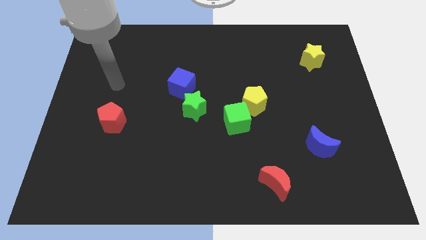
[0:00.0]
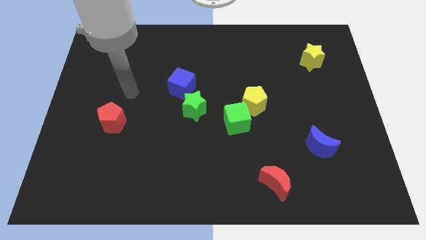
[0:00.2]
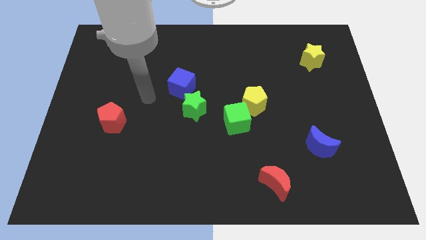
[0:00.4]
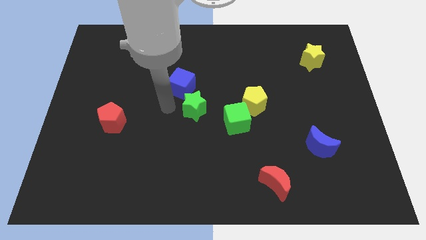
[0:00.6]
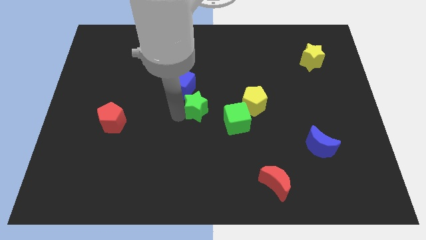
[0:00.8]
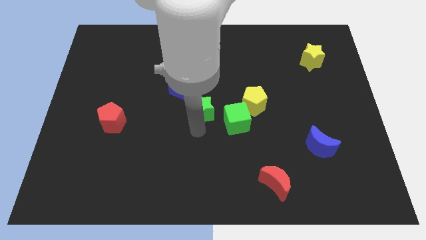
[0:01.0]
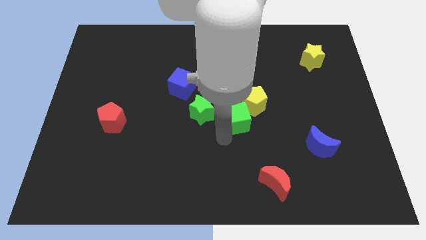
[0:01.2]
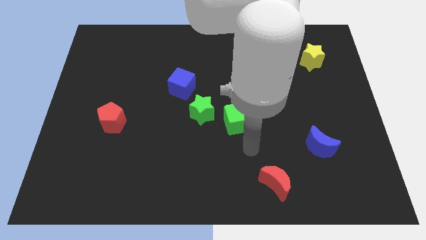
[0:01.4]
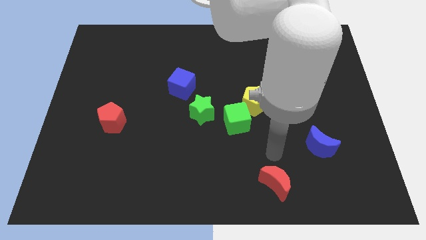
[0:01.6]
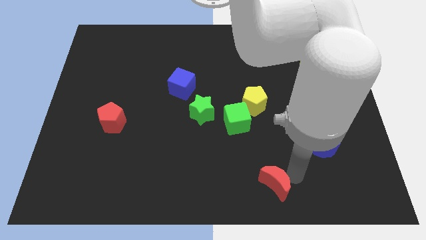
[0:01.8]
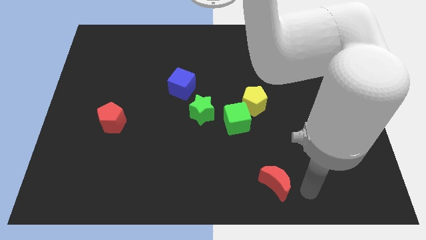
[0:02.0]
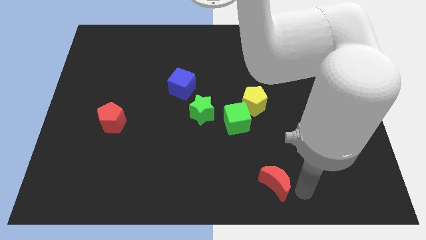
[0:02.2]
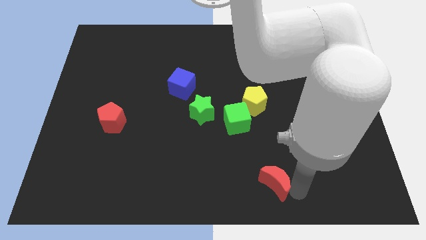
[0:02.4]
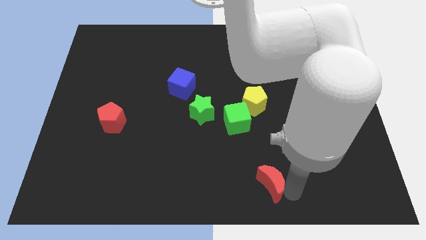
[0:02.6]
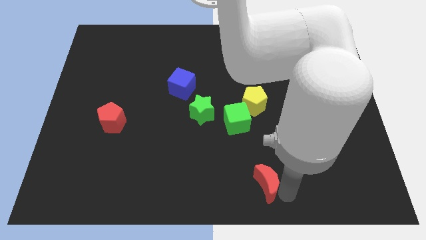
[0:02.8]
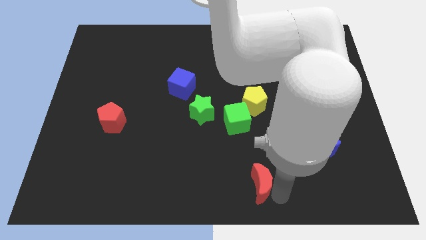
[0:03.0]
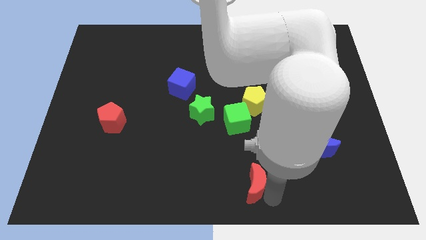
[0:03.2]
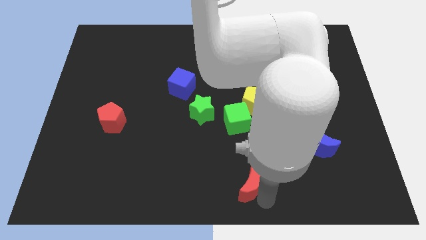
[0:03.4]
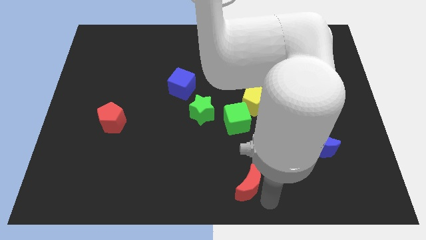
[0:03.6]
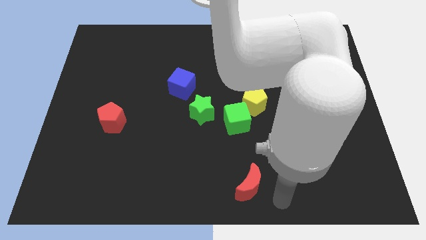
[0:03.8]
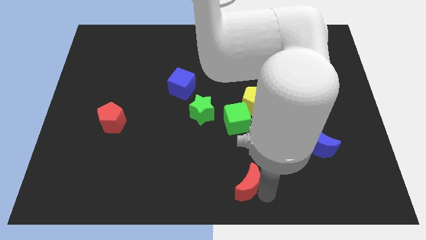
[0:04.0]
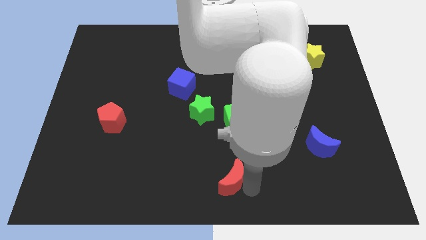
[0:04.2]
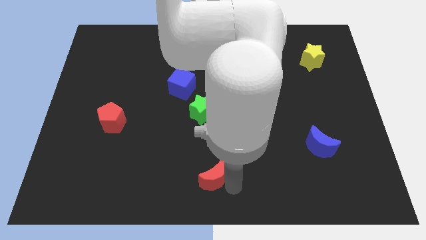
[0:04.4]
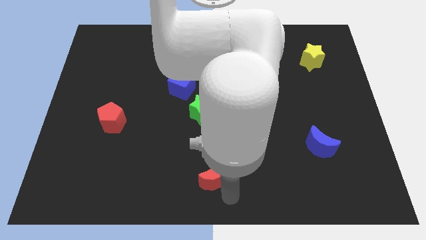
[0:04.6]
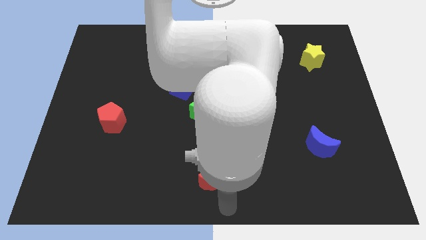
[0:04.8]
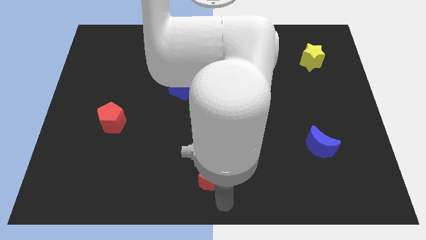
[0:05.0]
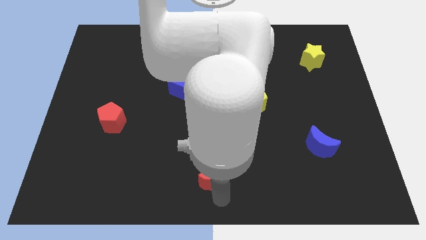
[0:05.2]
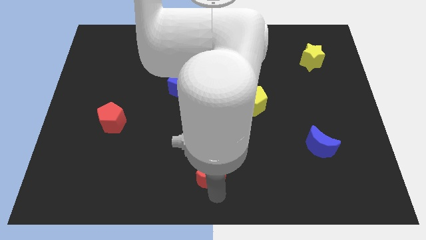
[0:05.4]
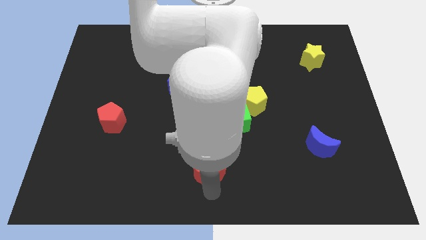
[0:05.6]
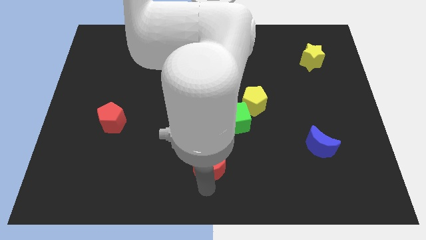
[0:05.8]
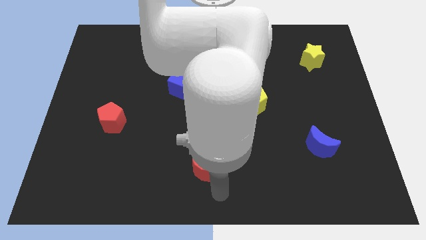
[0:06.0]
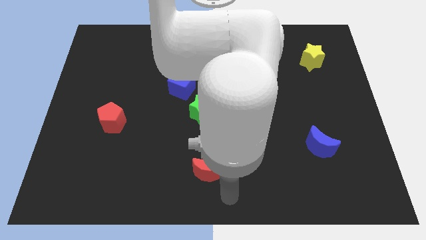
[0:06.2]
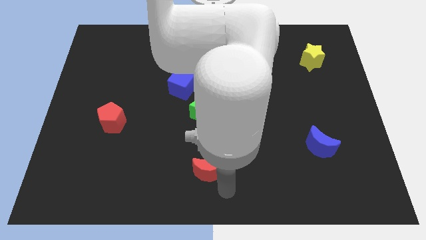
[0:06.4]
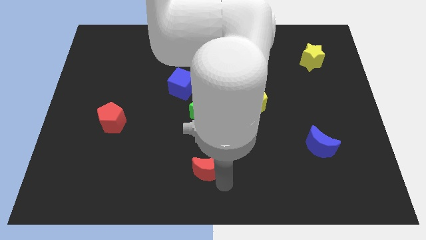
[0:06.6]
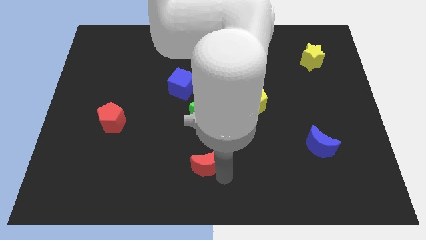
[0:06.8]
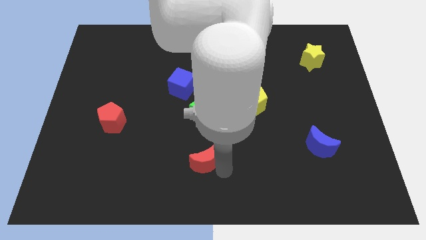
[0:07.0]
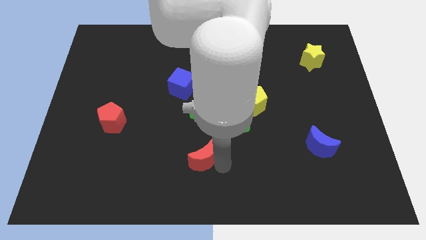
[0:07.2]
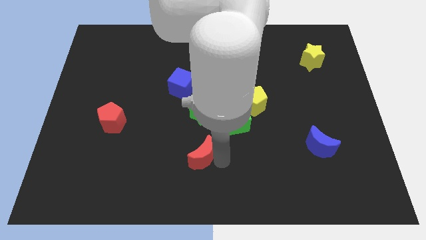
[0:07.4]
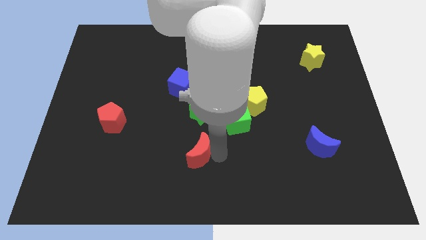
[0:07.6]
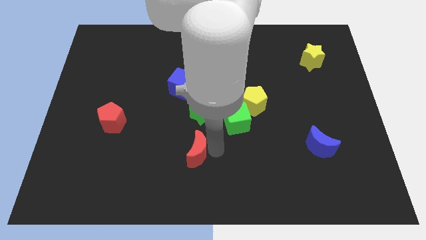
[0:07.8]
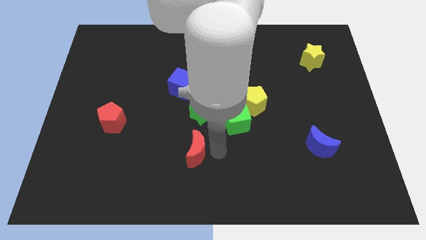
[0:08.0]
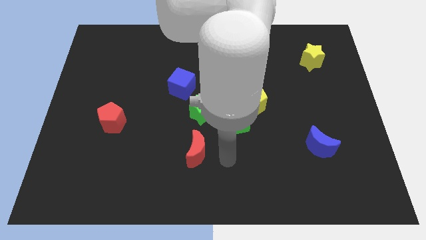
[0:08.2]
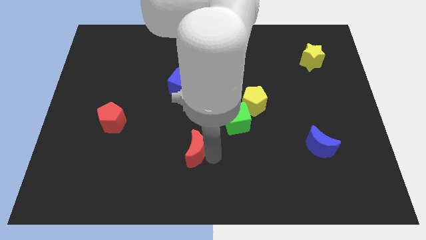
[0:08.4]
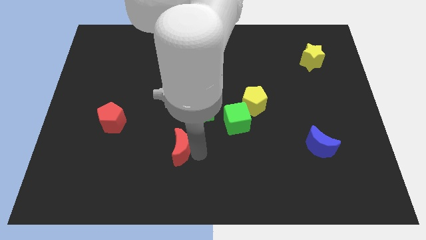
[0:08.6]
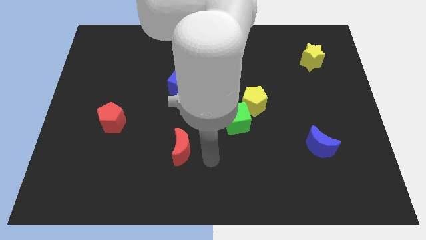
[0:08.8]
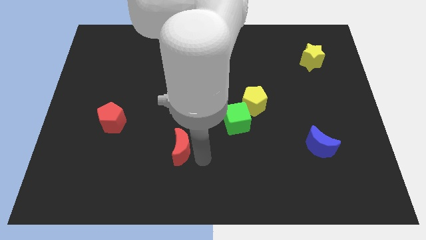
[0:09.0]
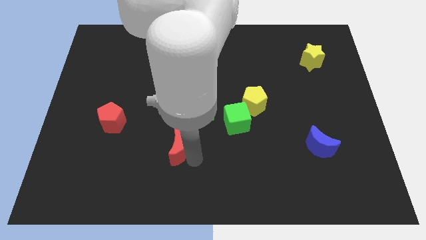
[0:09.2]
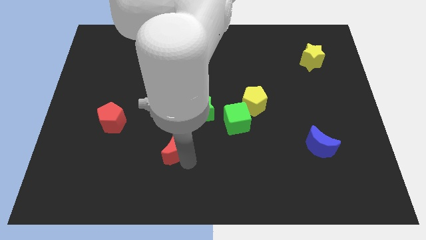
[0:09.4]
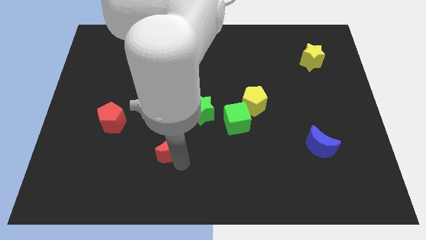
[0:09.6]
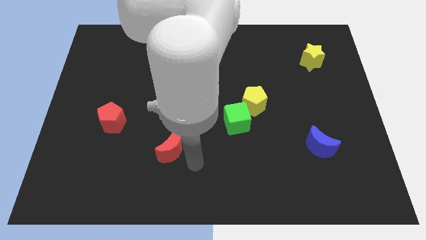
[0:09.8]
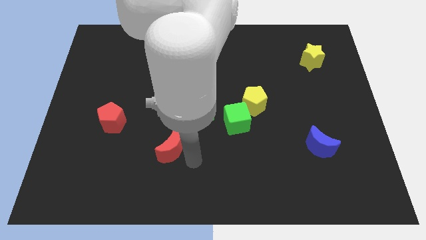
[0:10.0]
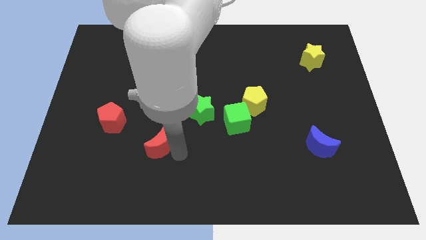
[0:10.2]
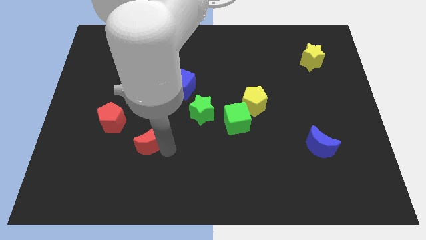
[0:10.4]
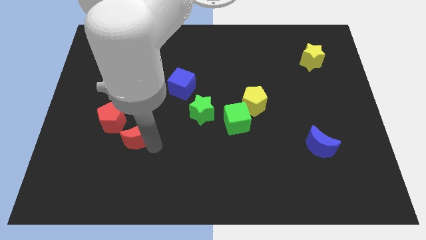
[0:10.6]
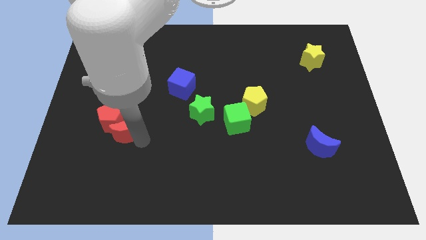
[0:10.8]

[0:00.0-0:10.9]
move the red moon next to the red pentagon

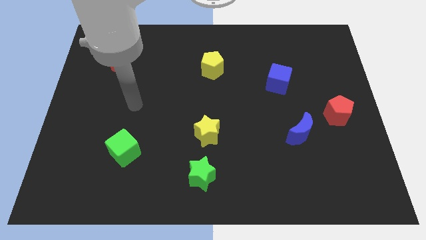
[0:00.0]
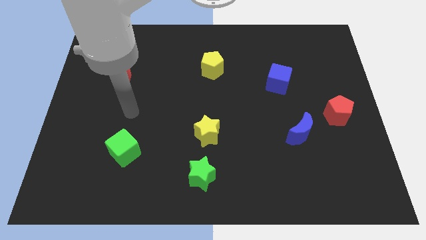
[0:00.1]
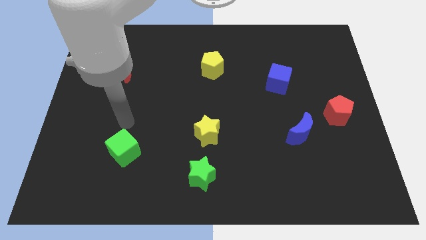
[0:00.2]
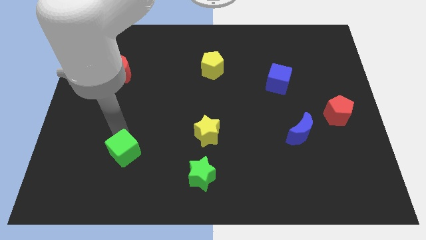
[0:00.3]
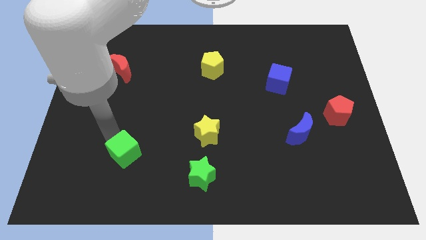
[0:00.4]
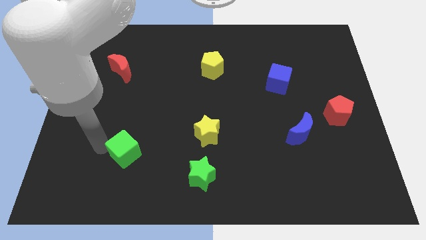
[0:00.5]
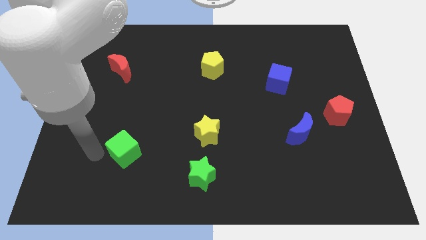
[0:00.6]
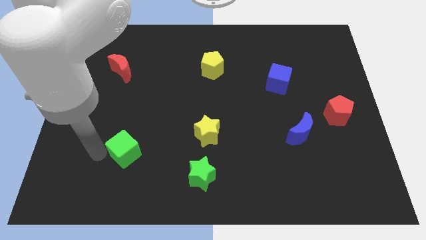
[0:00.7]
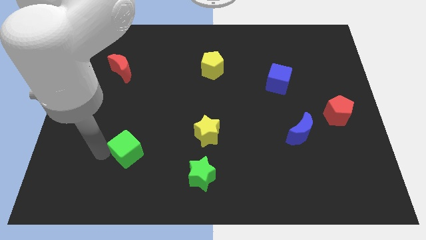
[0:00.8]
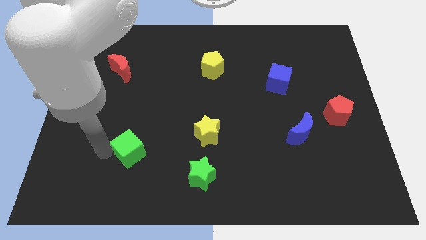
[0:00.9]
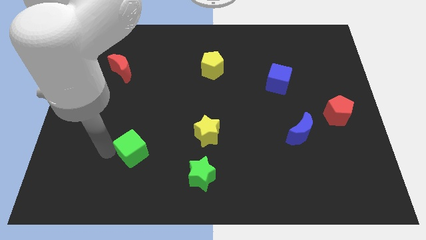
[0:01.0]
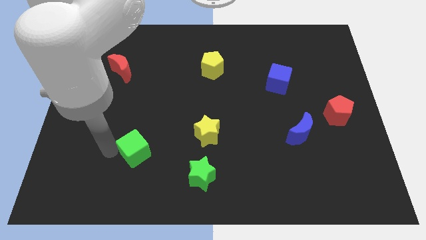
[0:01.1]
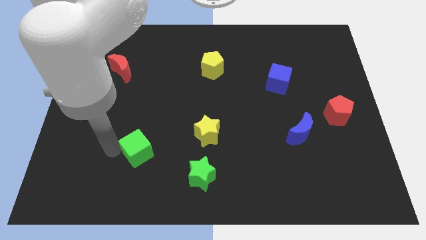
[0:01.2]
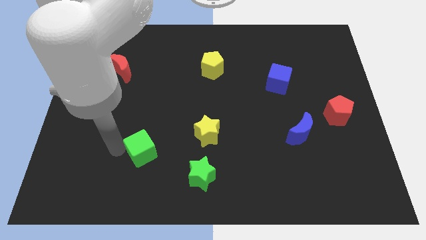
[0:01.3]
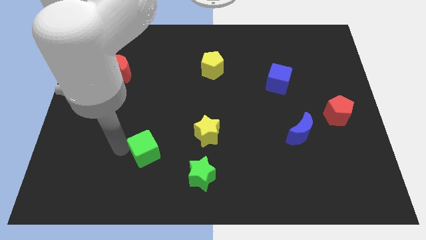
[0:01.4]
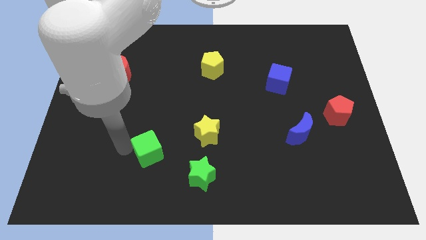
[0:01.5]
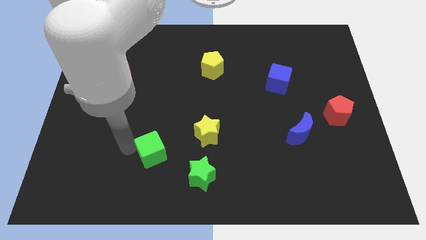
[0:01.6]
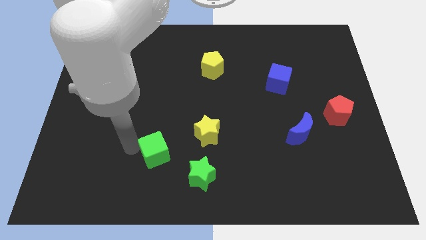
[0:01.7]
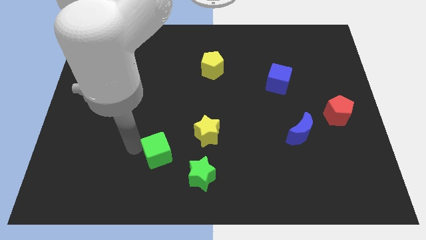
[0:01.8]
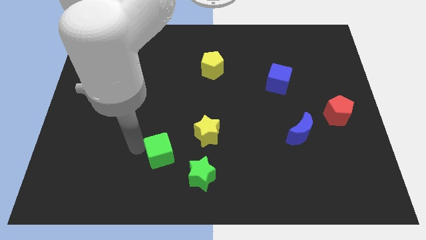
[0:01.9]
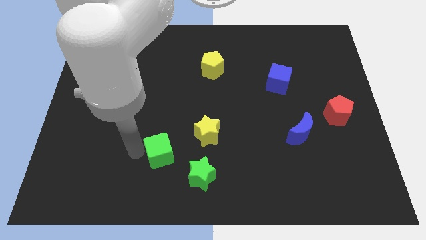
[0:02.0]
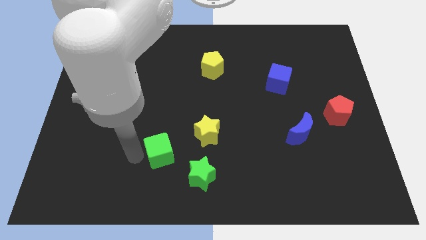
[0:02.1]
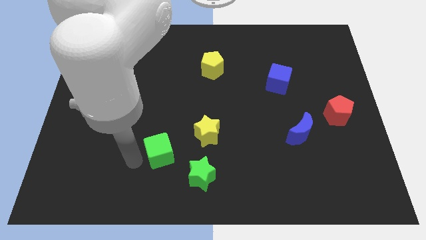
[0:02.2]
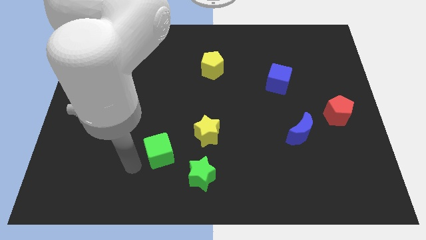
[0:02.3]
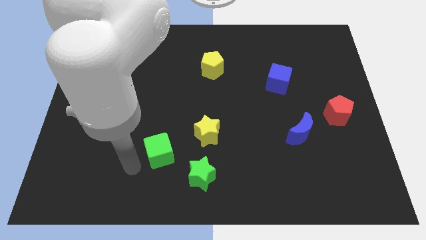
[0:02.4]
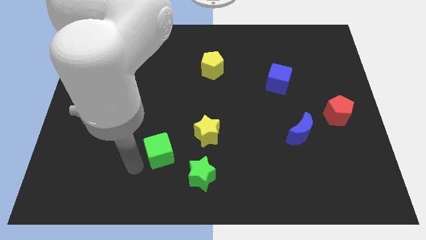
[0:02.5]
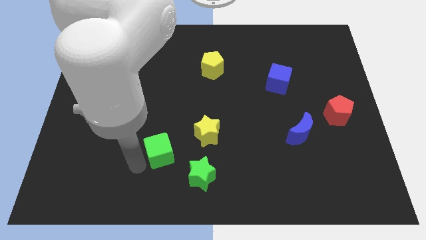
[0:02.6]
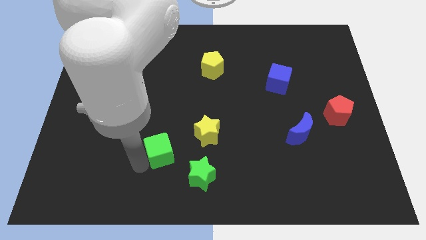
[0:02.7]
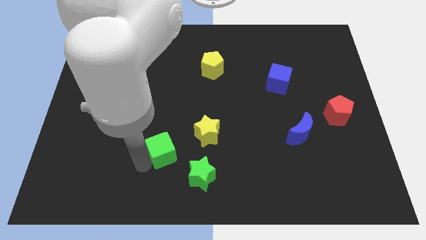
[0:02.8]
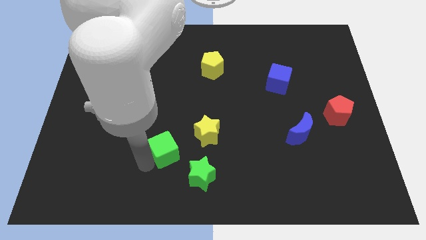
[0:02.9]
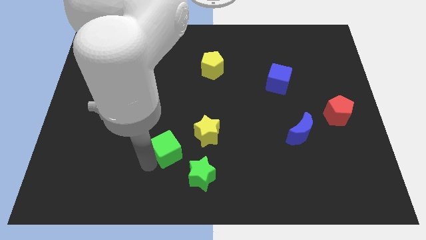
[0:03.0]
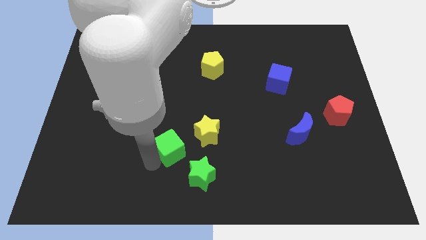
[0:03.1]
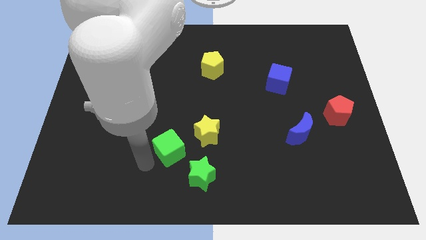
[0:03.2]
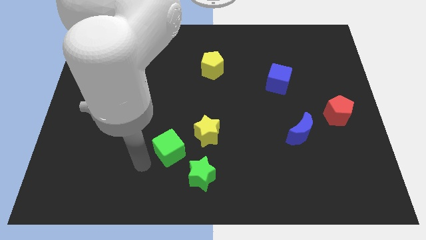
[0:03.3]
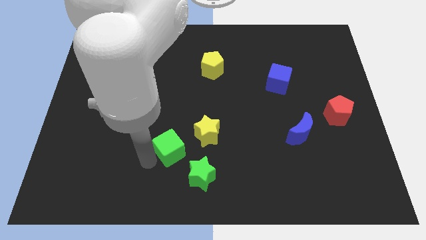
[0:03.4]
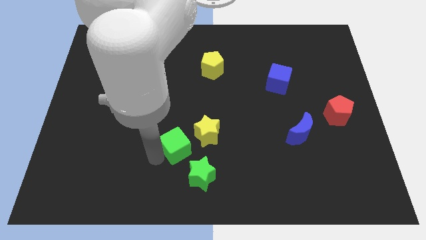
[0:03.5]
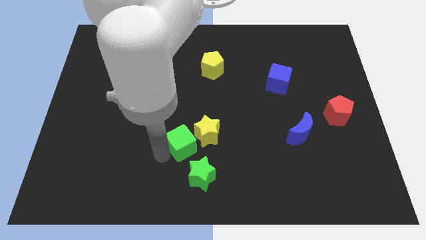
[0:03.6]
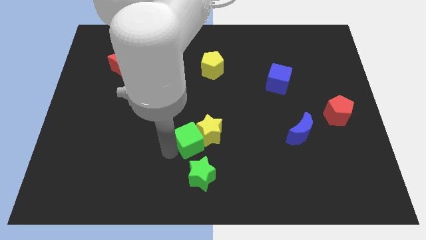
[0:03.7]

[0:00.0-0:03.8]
push the green cube next to the yellow star
